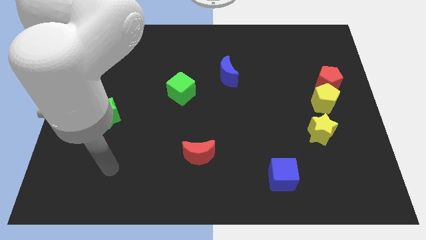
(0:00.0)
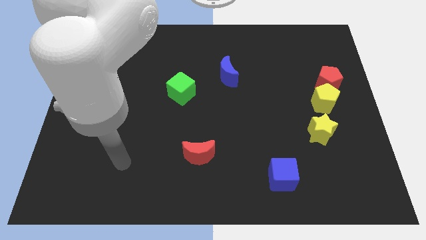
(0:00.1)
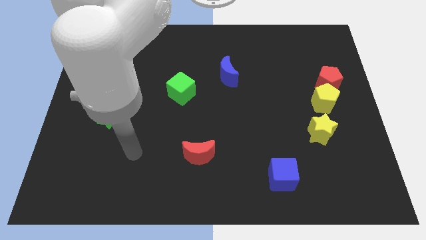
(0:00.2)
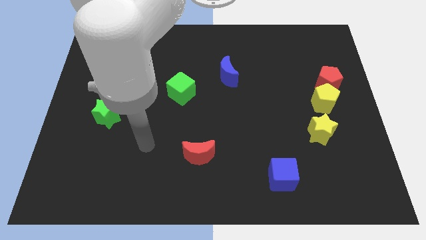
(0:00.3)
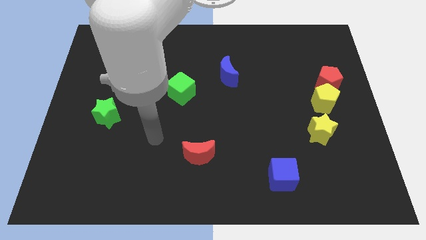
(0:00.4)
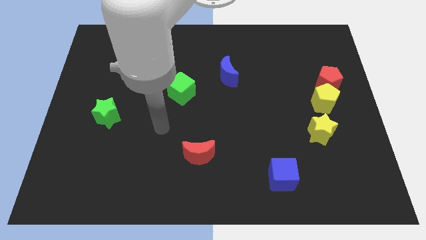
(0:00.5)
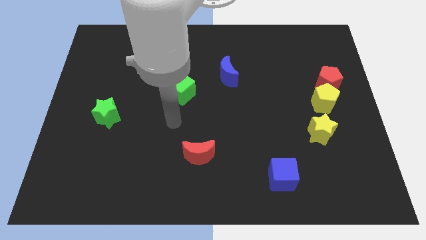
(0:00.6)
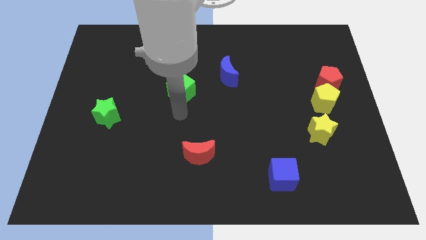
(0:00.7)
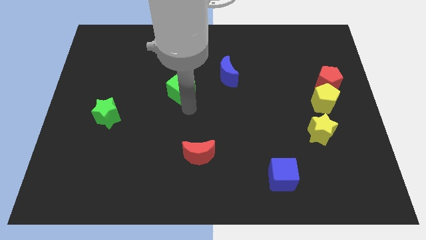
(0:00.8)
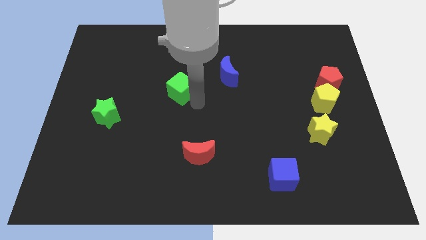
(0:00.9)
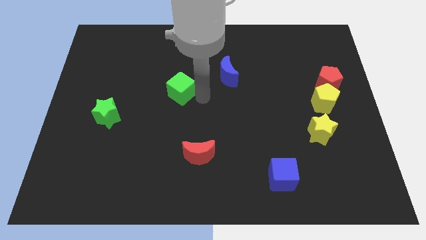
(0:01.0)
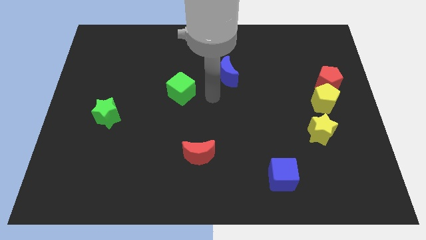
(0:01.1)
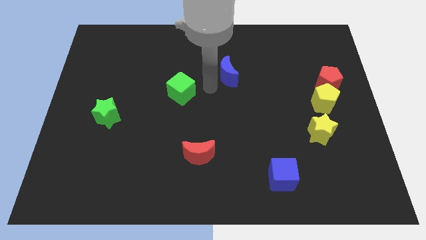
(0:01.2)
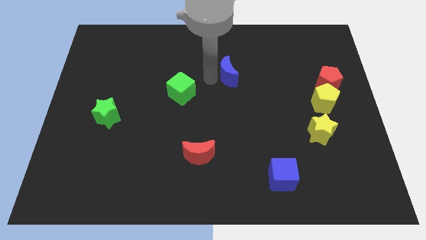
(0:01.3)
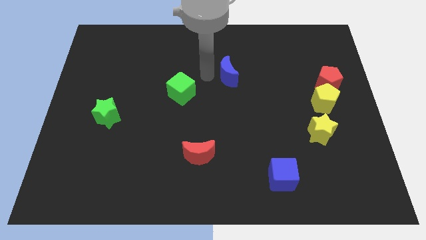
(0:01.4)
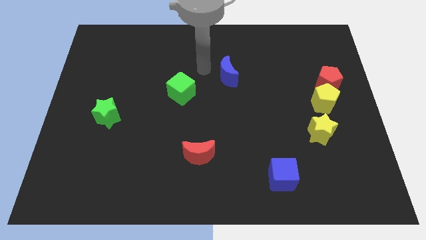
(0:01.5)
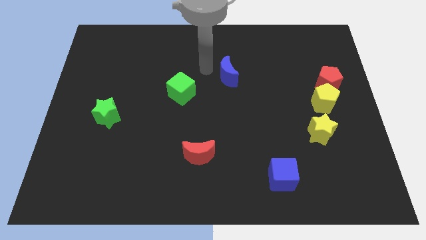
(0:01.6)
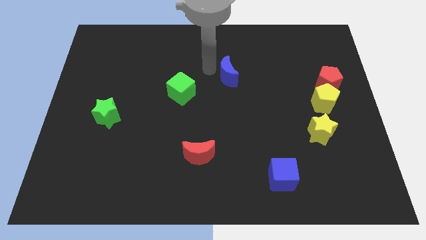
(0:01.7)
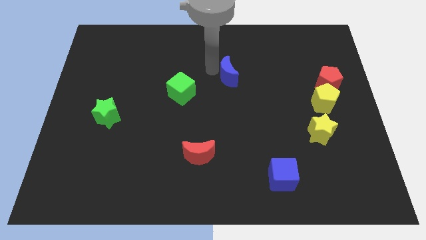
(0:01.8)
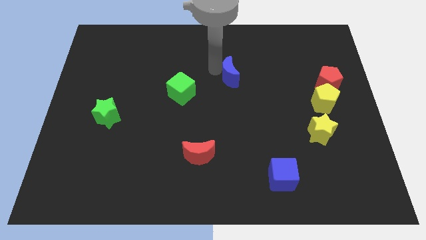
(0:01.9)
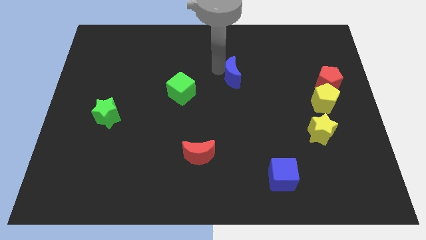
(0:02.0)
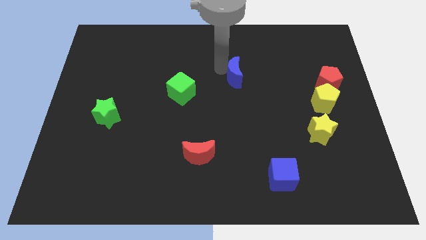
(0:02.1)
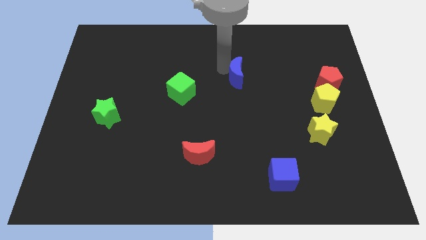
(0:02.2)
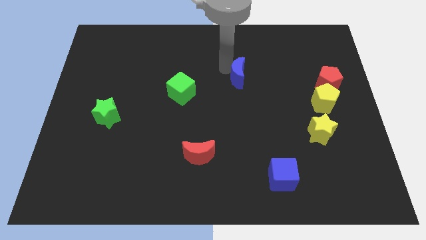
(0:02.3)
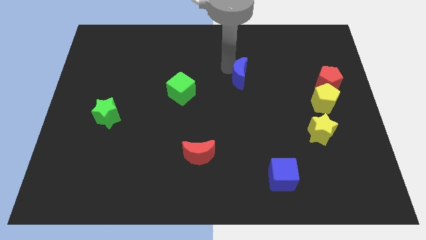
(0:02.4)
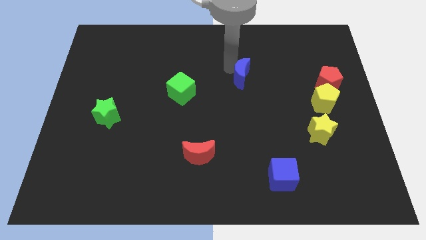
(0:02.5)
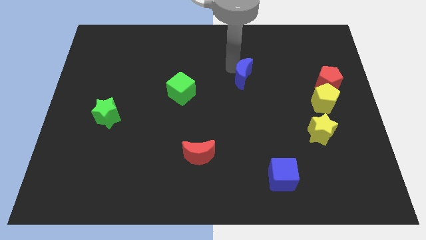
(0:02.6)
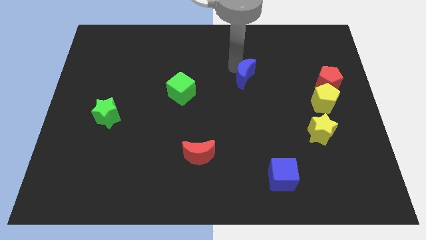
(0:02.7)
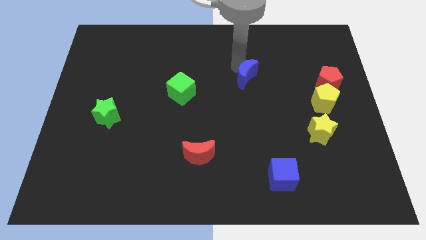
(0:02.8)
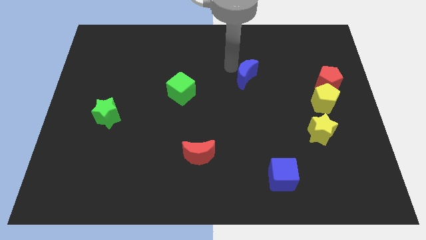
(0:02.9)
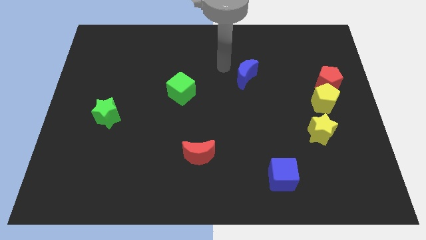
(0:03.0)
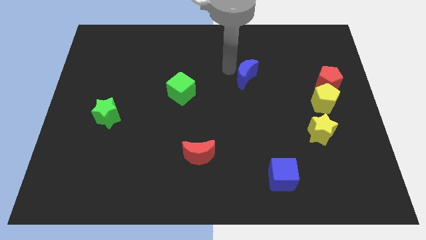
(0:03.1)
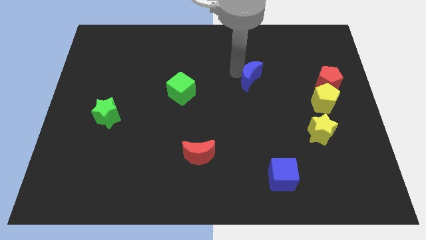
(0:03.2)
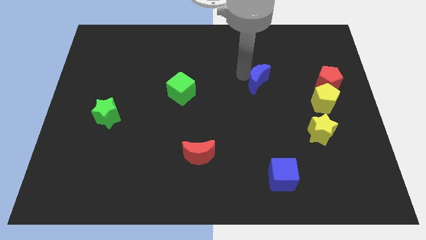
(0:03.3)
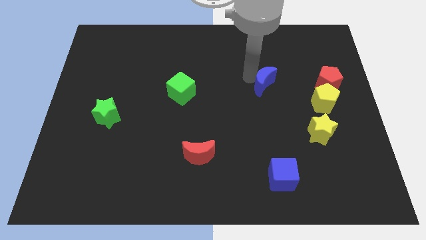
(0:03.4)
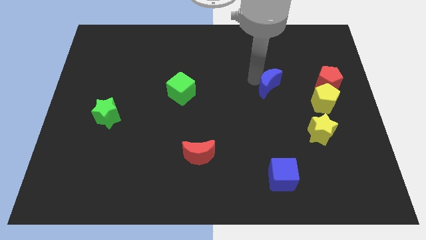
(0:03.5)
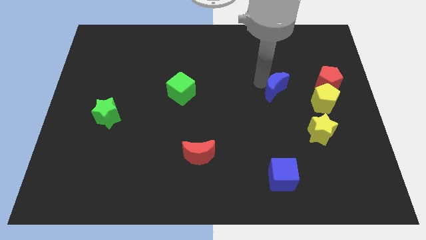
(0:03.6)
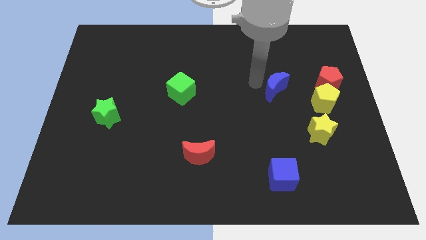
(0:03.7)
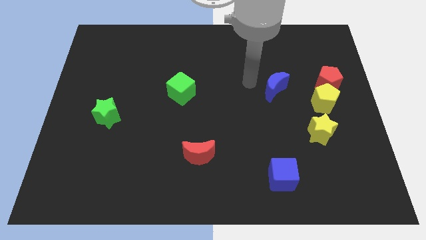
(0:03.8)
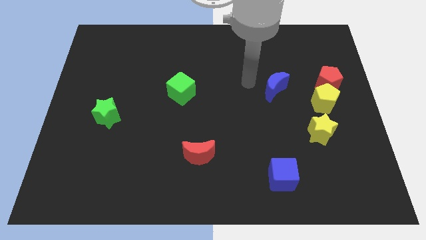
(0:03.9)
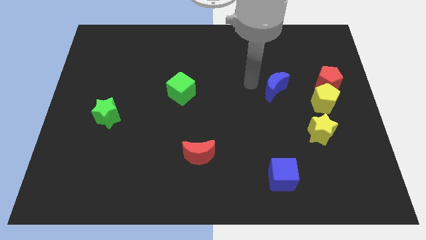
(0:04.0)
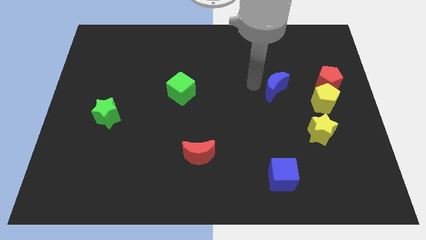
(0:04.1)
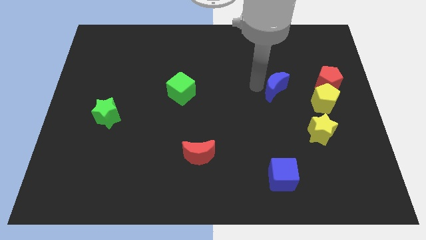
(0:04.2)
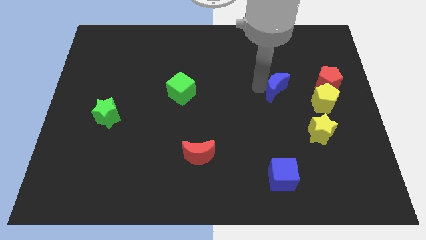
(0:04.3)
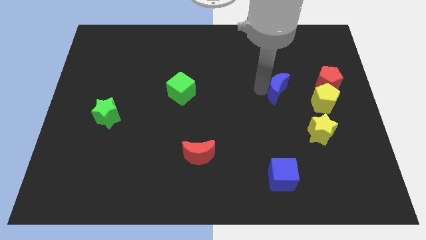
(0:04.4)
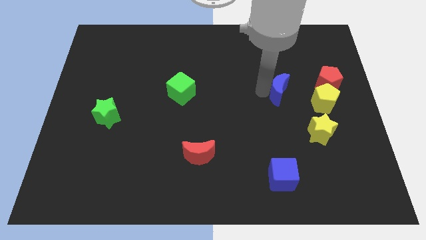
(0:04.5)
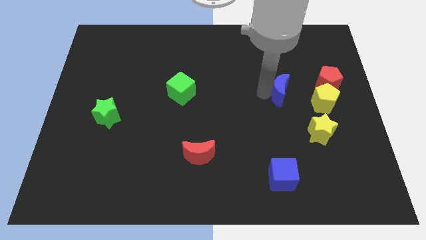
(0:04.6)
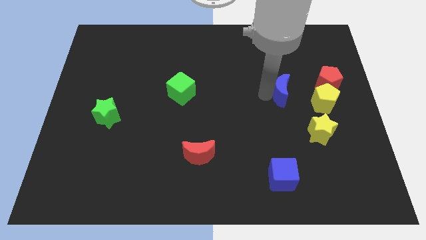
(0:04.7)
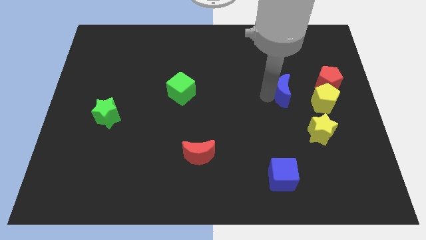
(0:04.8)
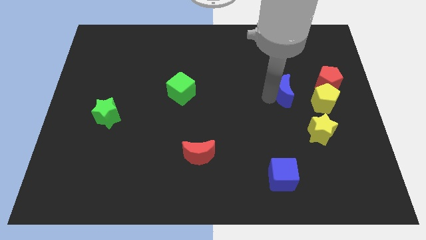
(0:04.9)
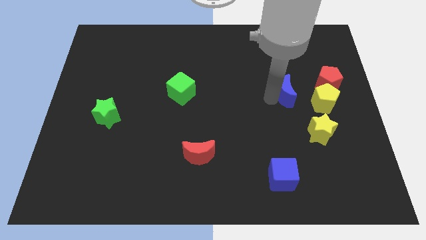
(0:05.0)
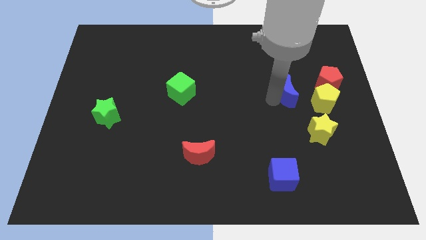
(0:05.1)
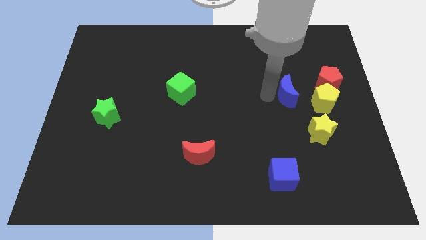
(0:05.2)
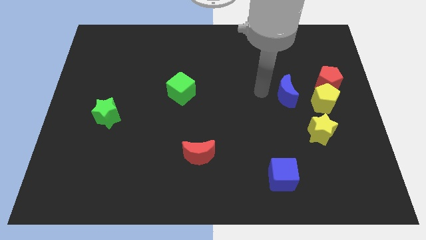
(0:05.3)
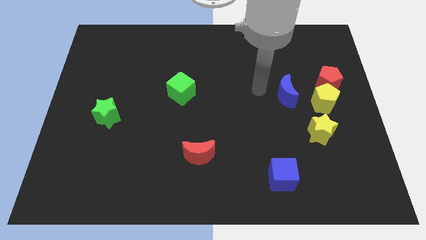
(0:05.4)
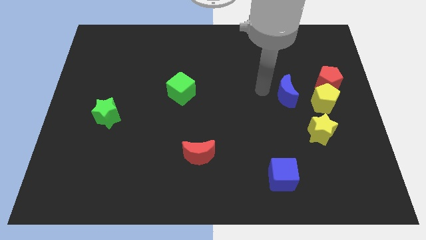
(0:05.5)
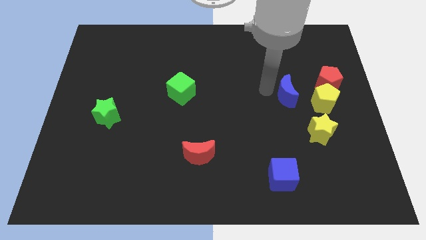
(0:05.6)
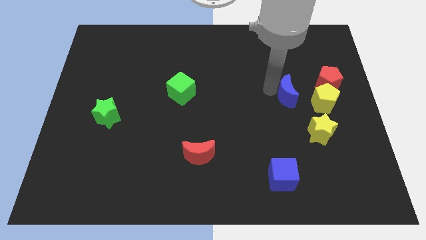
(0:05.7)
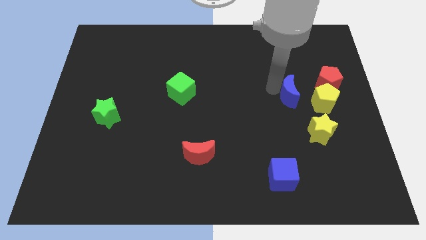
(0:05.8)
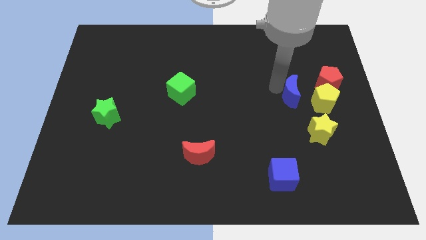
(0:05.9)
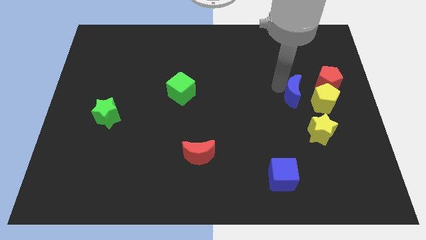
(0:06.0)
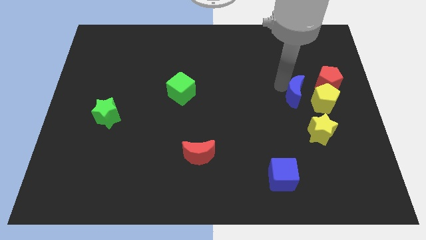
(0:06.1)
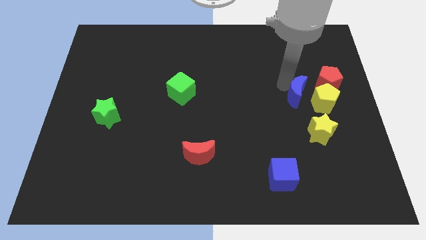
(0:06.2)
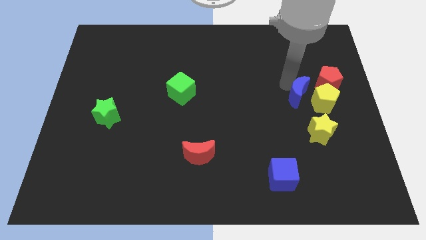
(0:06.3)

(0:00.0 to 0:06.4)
move the blue moon close to the yellow pentagon

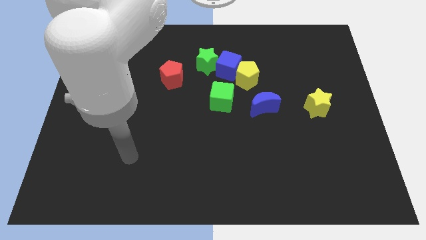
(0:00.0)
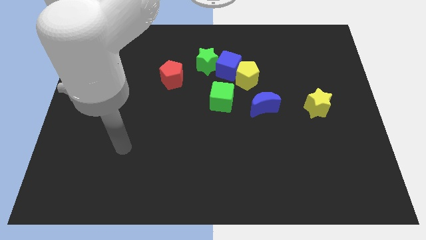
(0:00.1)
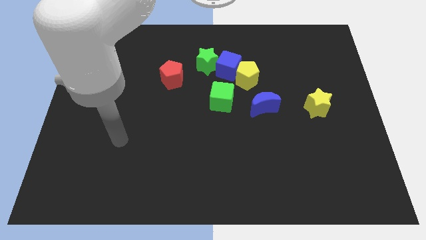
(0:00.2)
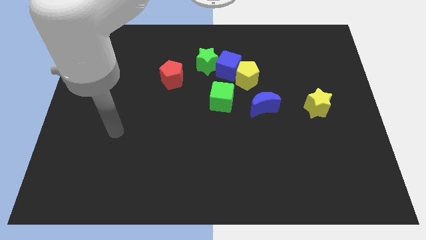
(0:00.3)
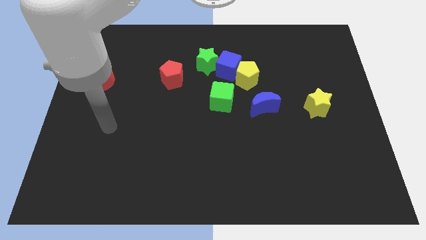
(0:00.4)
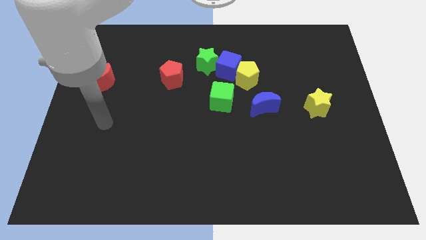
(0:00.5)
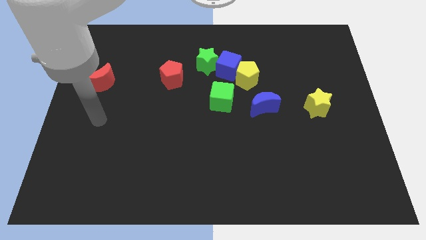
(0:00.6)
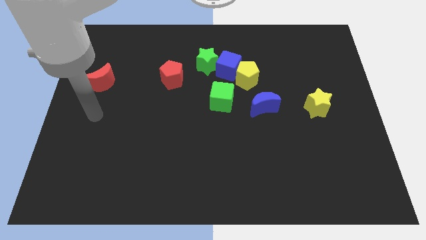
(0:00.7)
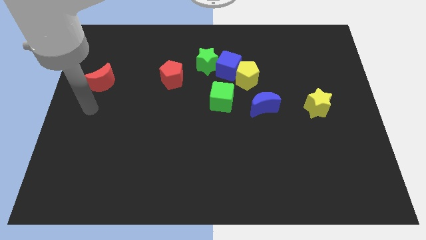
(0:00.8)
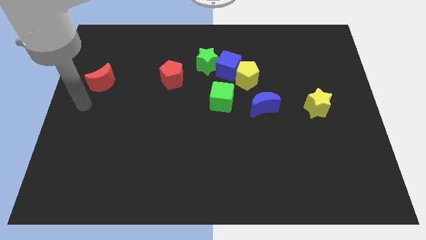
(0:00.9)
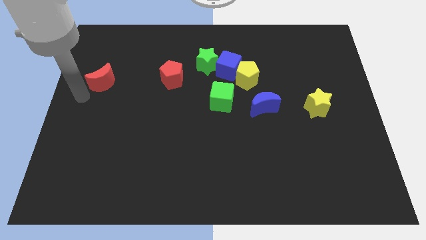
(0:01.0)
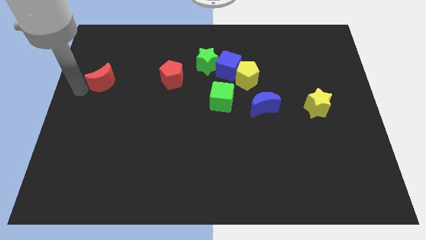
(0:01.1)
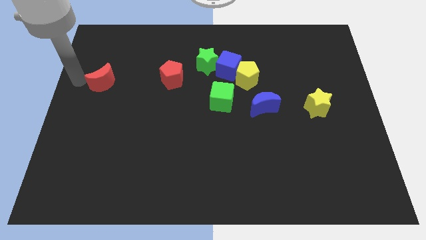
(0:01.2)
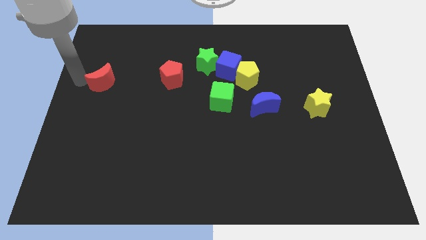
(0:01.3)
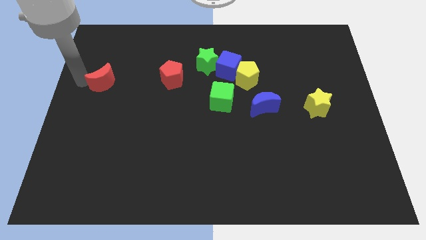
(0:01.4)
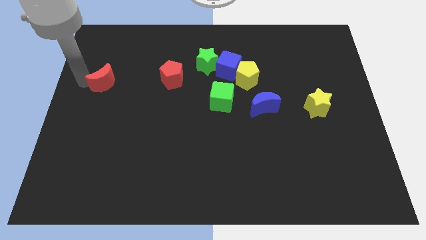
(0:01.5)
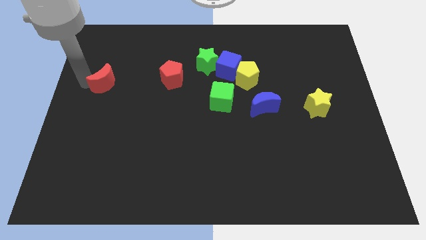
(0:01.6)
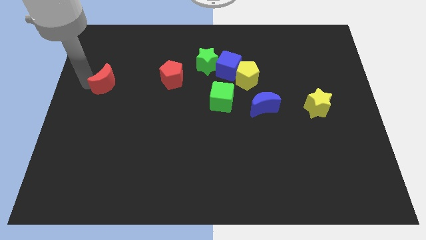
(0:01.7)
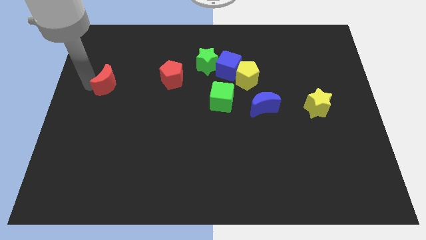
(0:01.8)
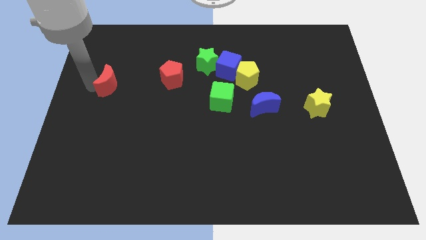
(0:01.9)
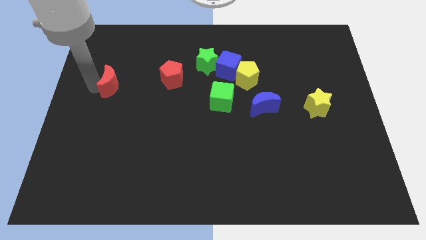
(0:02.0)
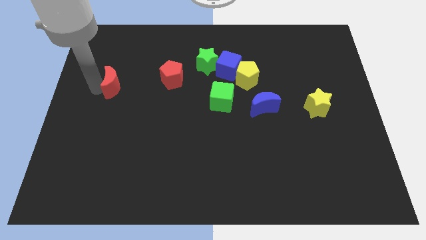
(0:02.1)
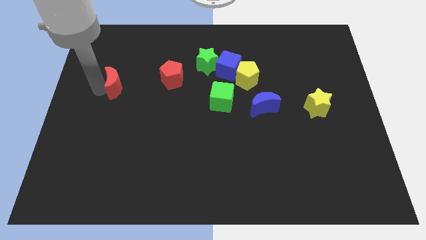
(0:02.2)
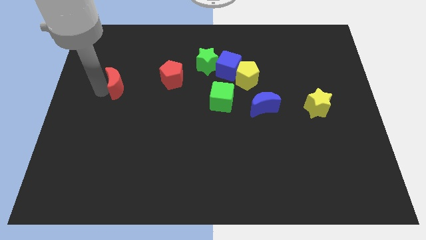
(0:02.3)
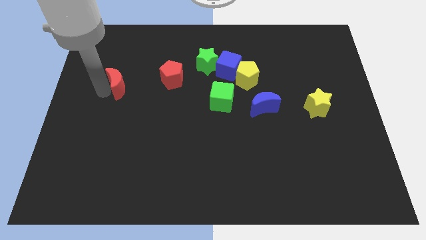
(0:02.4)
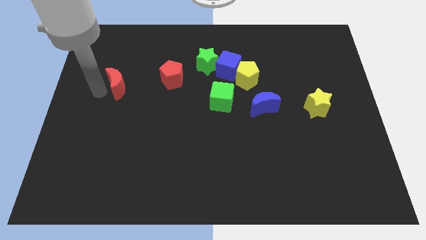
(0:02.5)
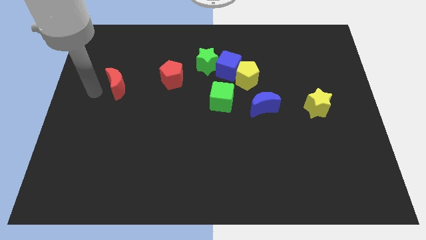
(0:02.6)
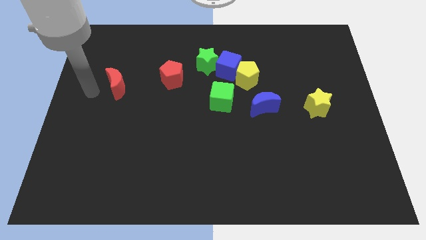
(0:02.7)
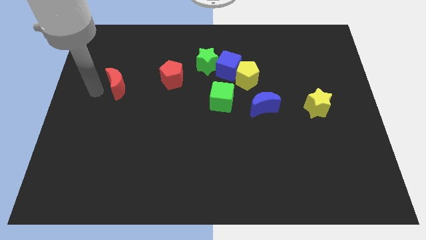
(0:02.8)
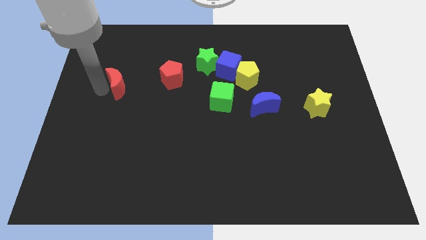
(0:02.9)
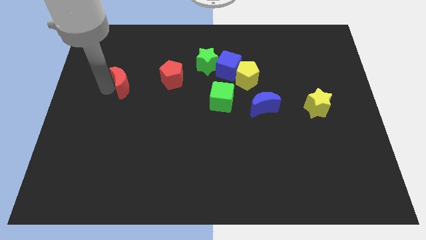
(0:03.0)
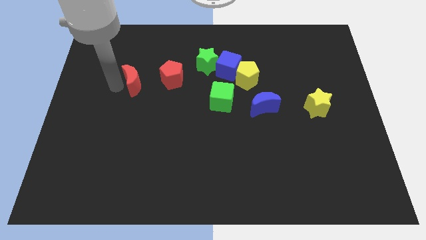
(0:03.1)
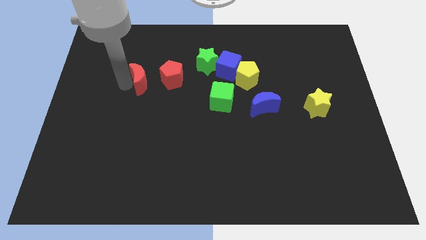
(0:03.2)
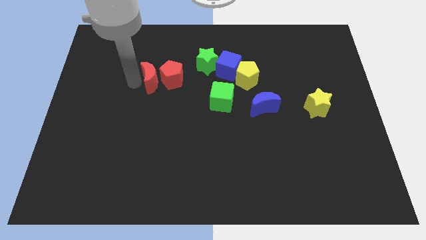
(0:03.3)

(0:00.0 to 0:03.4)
move the red moon towards the red pentagon
